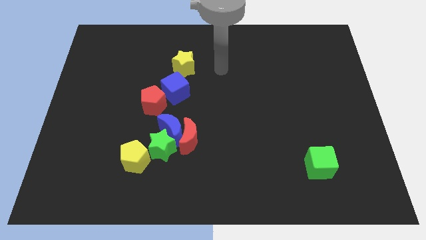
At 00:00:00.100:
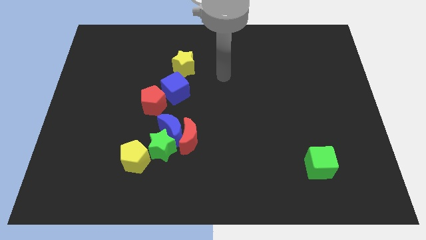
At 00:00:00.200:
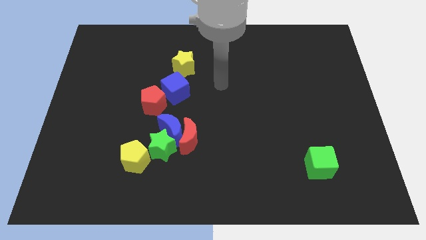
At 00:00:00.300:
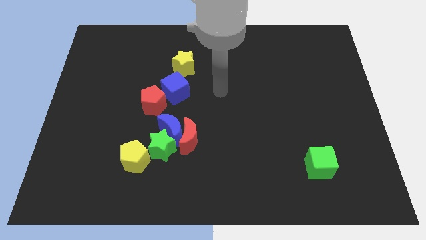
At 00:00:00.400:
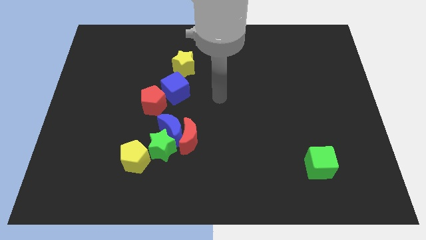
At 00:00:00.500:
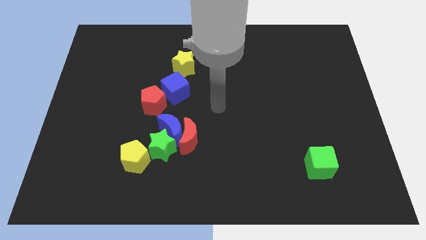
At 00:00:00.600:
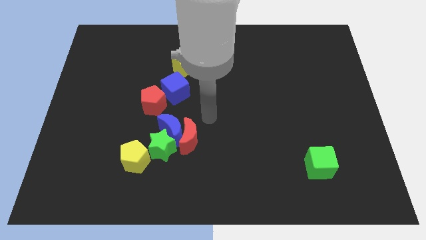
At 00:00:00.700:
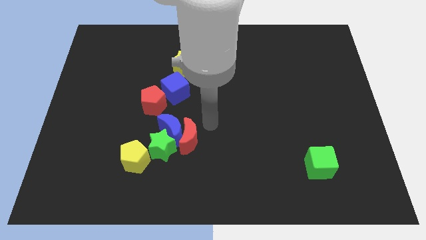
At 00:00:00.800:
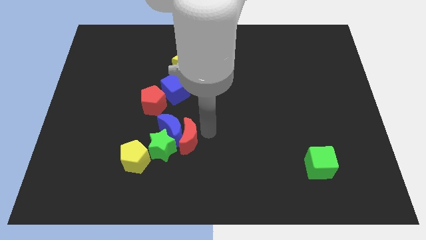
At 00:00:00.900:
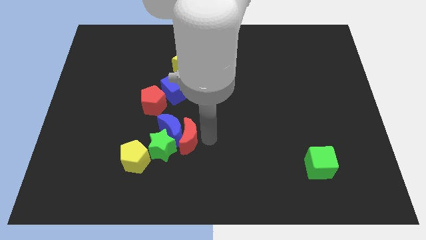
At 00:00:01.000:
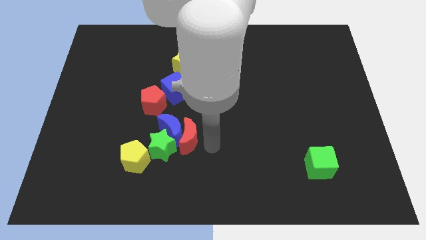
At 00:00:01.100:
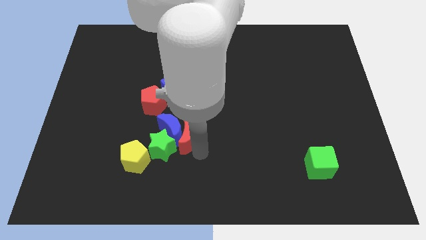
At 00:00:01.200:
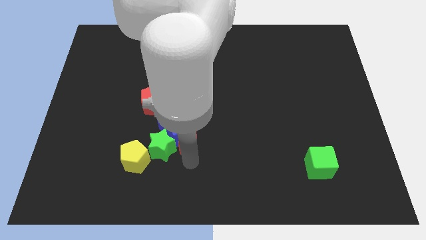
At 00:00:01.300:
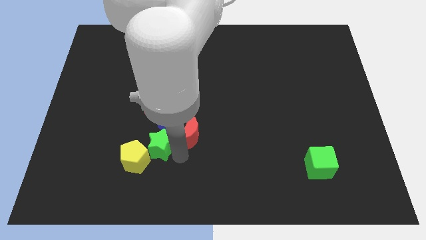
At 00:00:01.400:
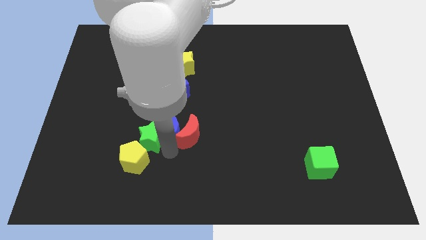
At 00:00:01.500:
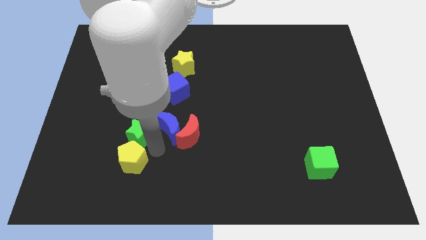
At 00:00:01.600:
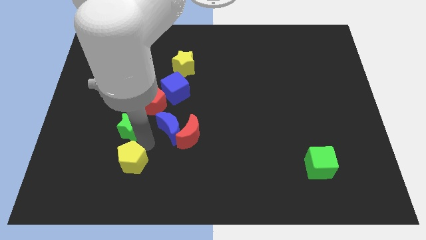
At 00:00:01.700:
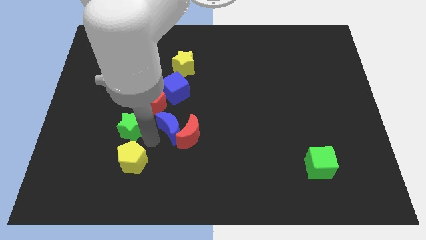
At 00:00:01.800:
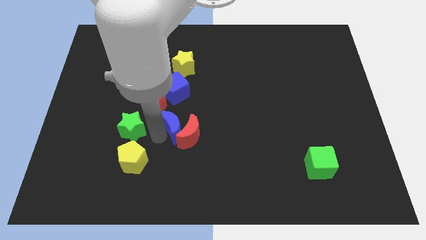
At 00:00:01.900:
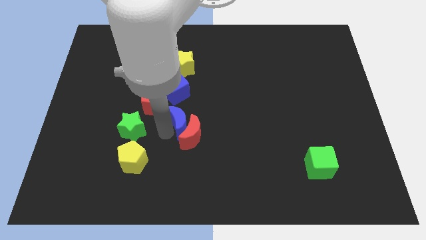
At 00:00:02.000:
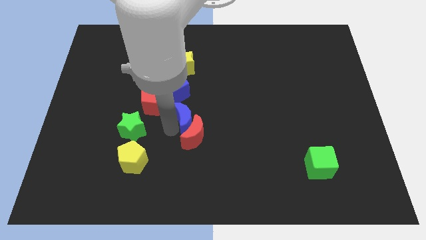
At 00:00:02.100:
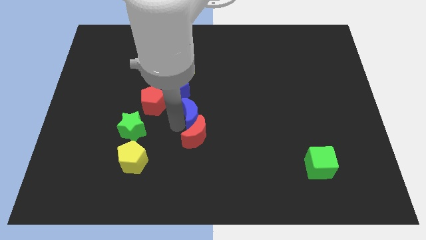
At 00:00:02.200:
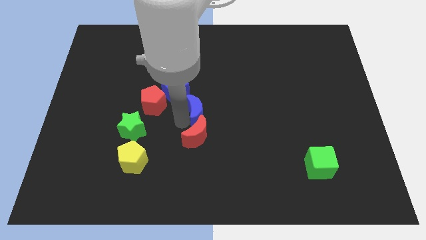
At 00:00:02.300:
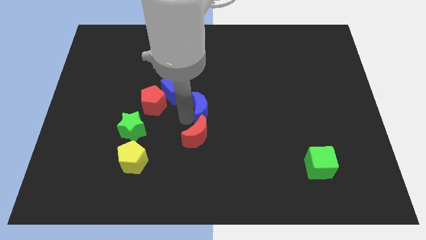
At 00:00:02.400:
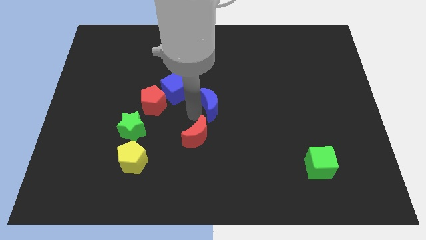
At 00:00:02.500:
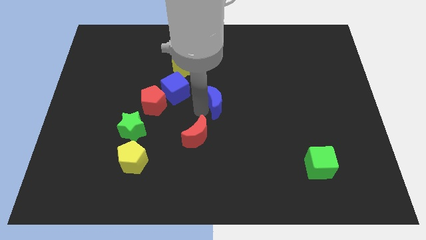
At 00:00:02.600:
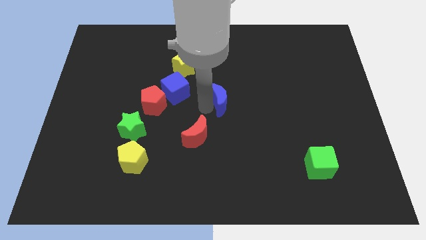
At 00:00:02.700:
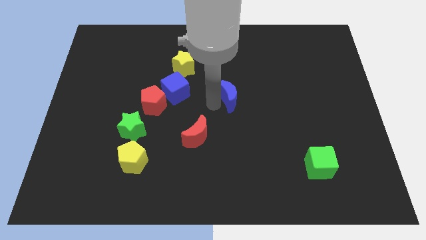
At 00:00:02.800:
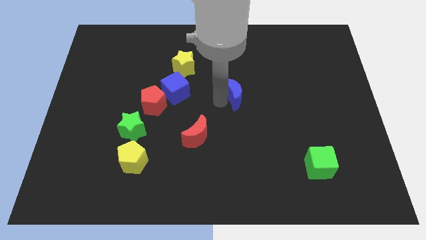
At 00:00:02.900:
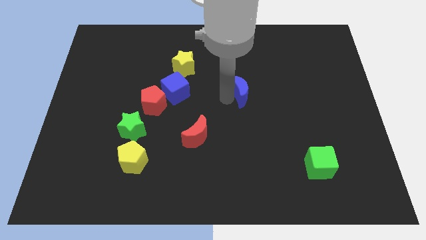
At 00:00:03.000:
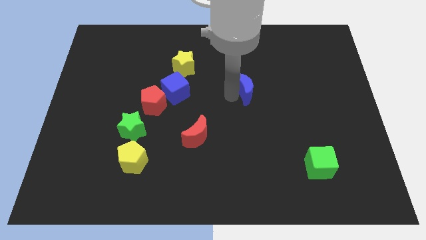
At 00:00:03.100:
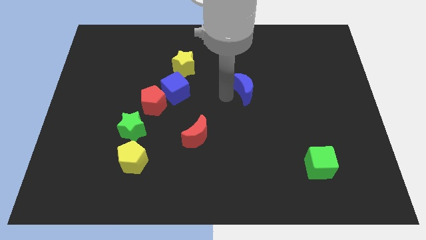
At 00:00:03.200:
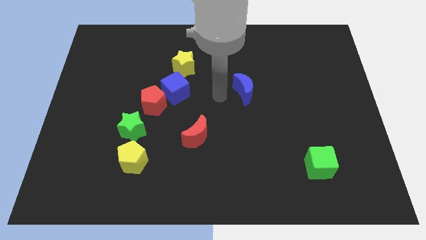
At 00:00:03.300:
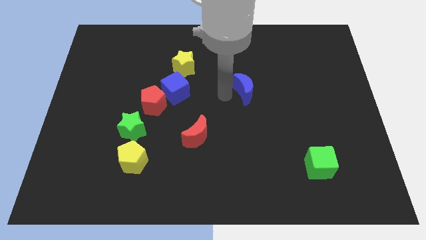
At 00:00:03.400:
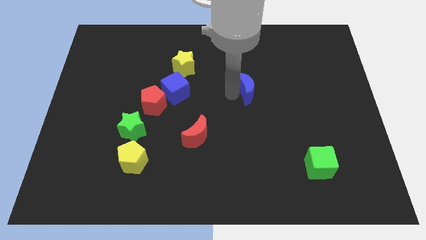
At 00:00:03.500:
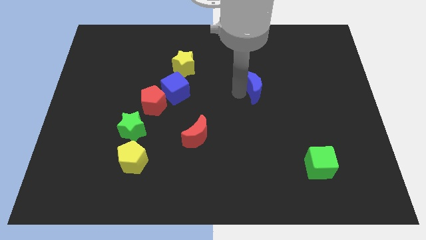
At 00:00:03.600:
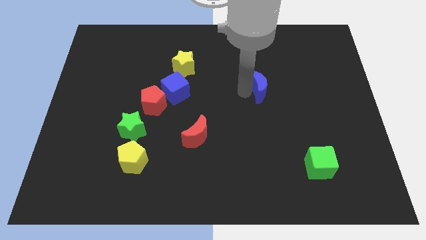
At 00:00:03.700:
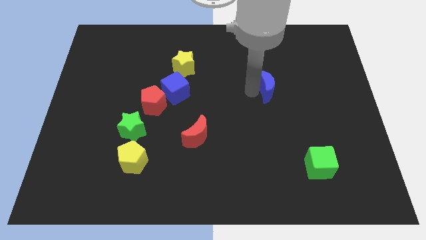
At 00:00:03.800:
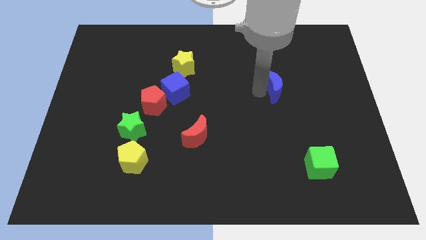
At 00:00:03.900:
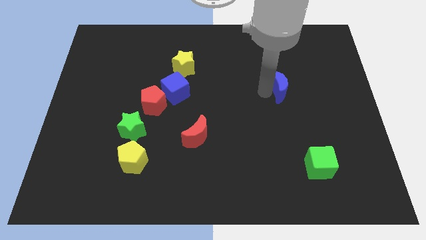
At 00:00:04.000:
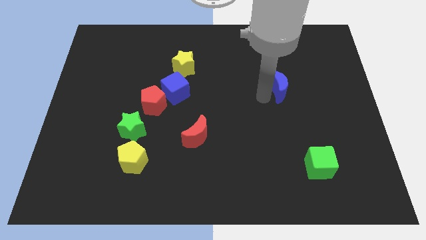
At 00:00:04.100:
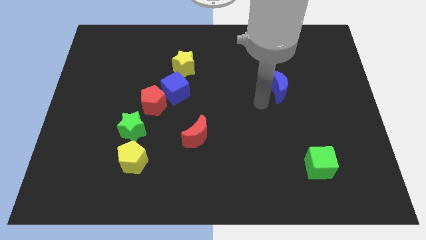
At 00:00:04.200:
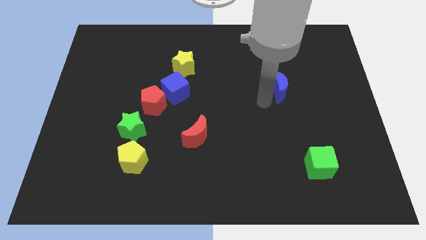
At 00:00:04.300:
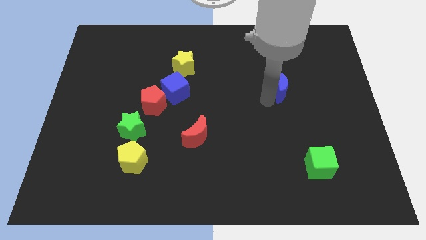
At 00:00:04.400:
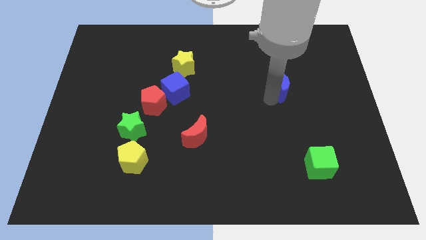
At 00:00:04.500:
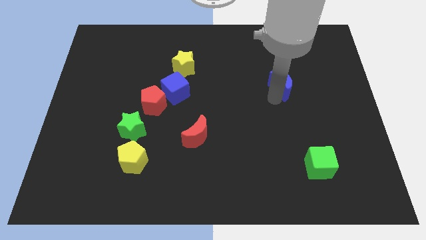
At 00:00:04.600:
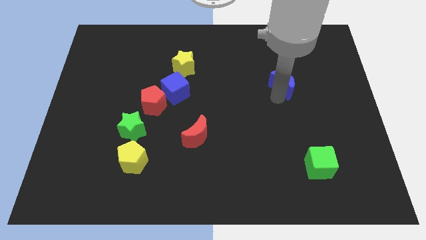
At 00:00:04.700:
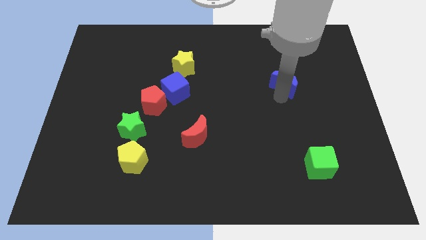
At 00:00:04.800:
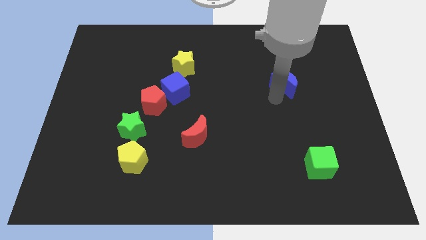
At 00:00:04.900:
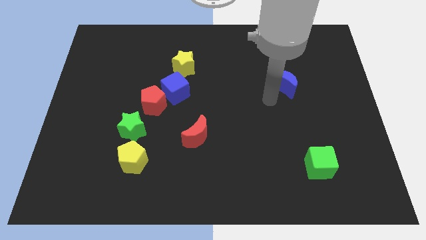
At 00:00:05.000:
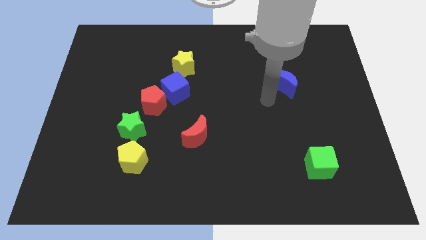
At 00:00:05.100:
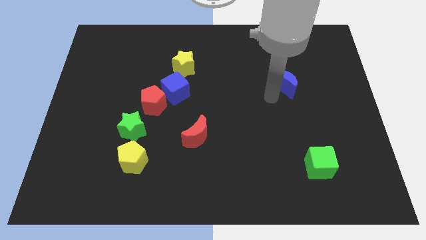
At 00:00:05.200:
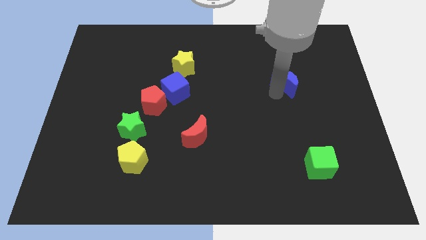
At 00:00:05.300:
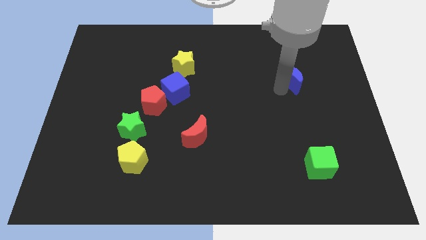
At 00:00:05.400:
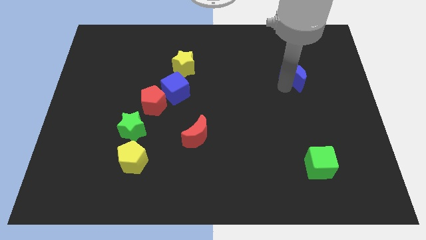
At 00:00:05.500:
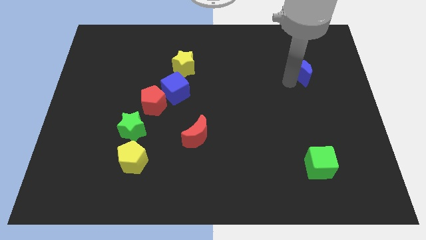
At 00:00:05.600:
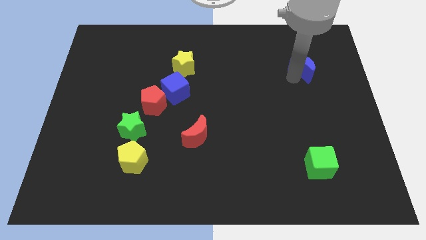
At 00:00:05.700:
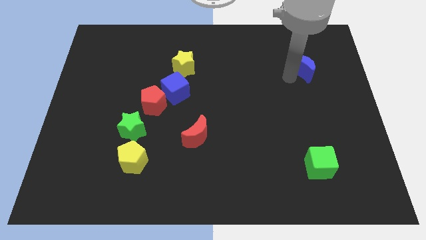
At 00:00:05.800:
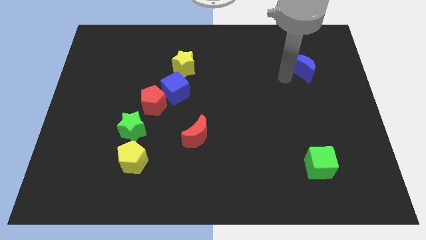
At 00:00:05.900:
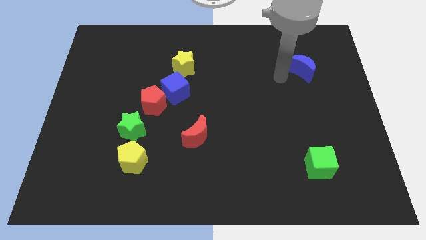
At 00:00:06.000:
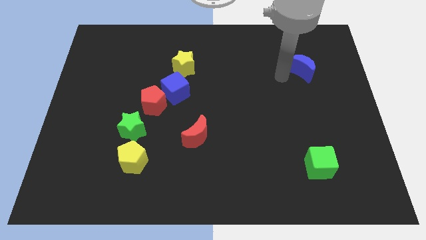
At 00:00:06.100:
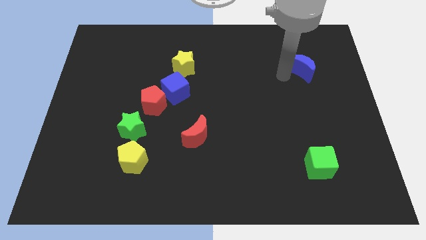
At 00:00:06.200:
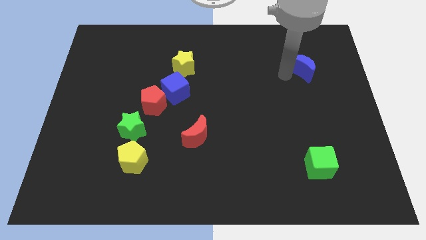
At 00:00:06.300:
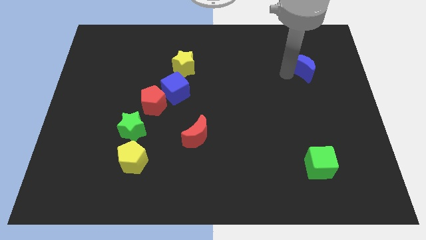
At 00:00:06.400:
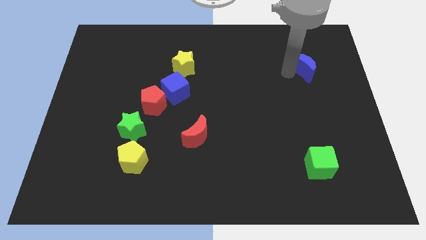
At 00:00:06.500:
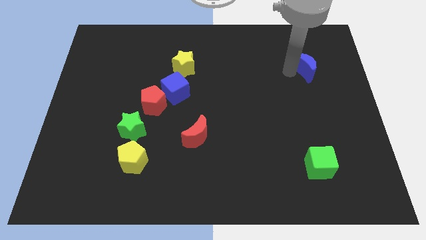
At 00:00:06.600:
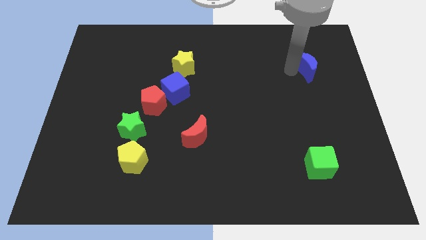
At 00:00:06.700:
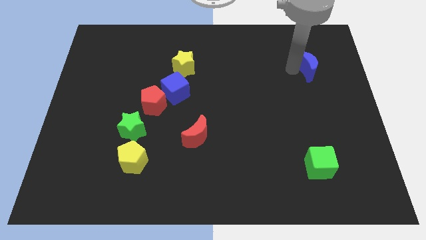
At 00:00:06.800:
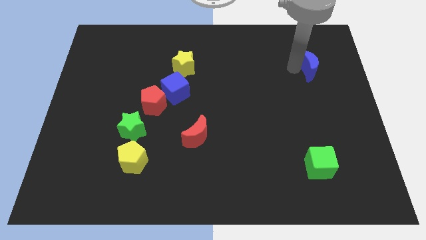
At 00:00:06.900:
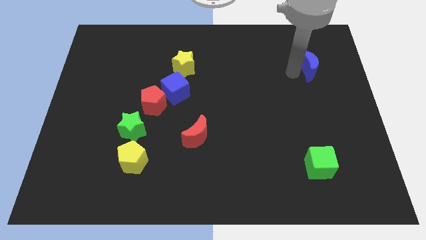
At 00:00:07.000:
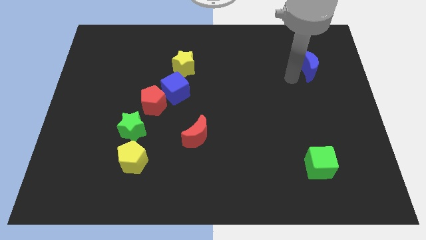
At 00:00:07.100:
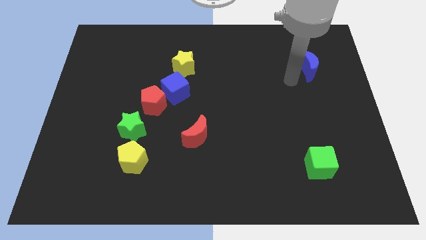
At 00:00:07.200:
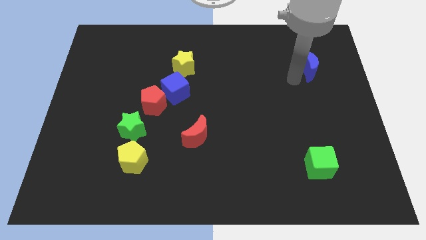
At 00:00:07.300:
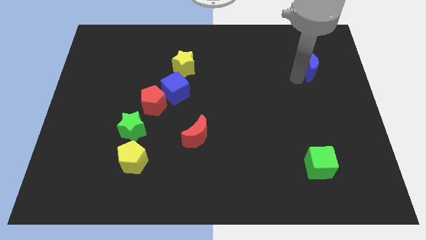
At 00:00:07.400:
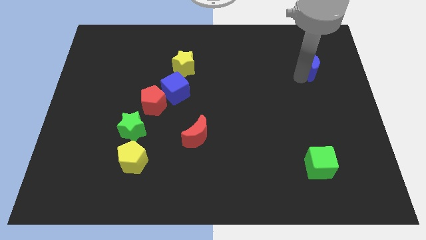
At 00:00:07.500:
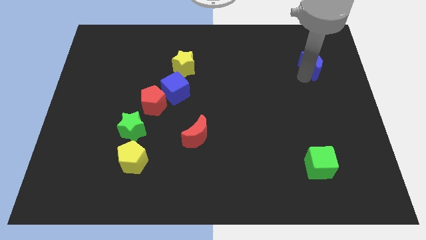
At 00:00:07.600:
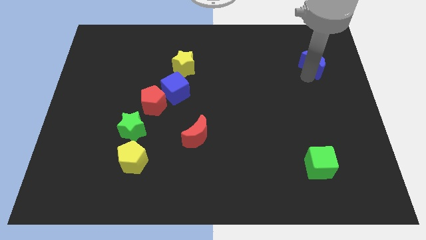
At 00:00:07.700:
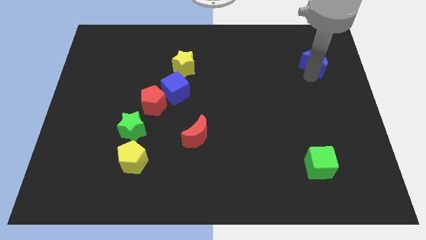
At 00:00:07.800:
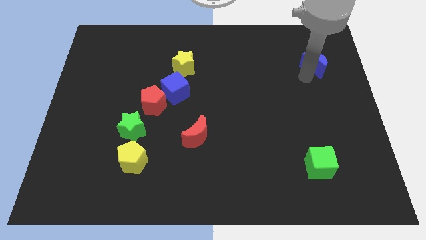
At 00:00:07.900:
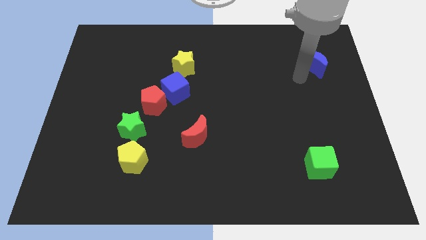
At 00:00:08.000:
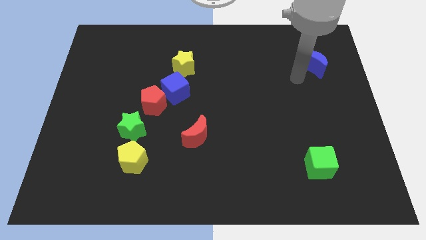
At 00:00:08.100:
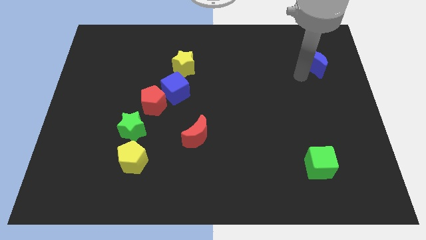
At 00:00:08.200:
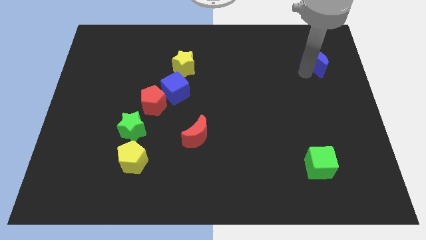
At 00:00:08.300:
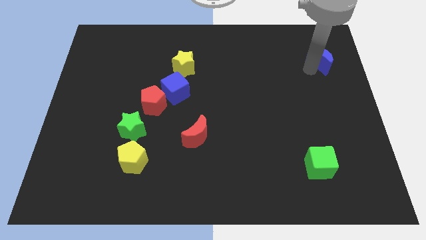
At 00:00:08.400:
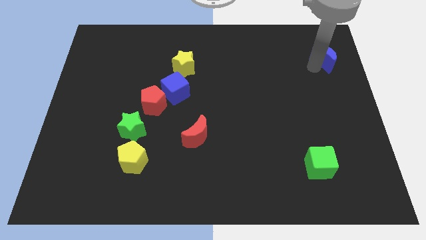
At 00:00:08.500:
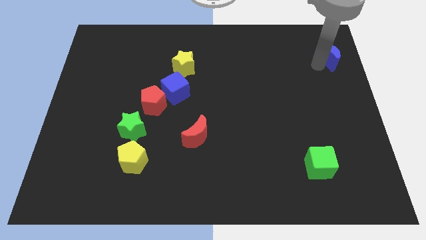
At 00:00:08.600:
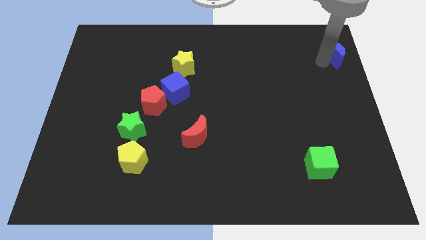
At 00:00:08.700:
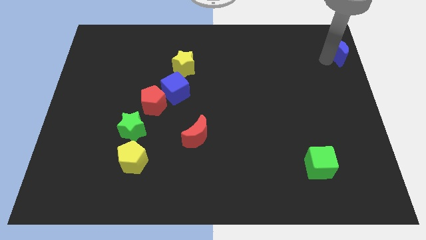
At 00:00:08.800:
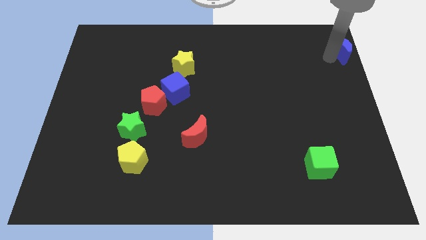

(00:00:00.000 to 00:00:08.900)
put the blue moon to the top right
